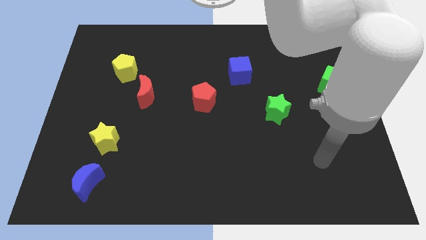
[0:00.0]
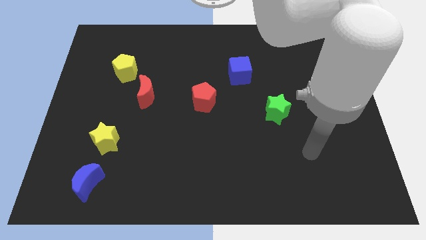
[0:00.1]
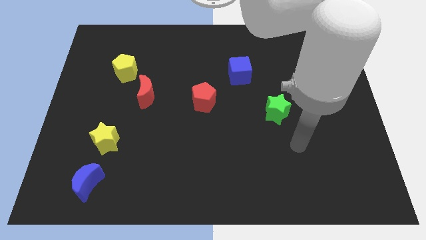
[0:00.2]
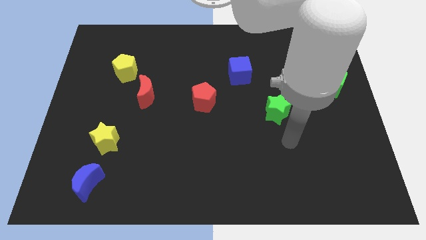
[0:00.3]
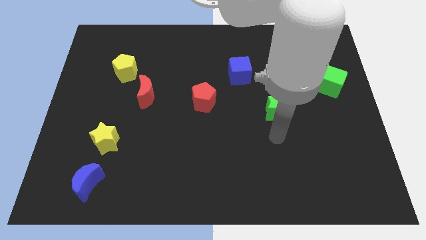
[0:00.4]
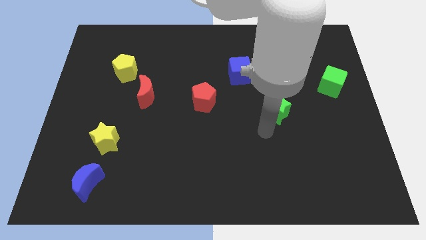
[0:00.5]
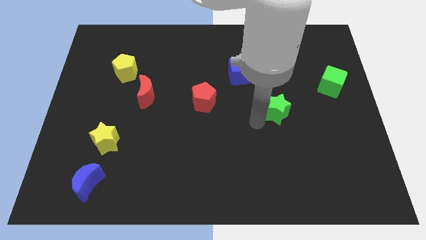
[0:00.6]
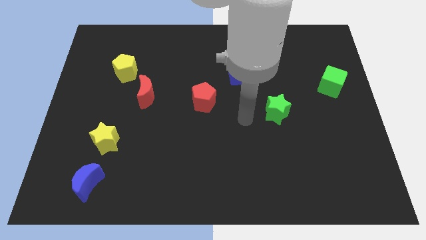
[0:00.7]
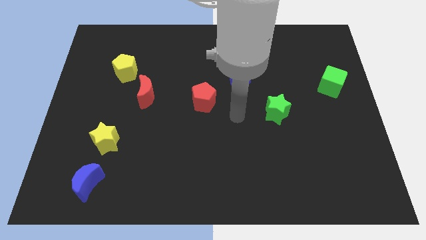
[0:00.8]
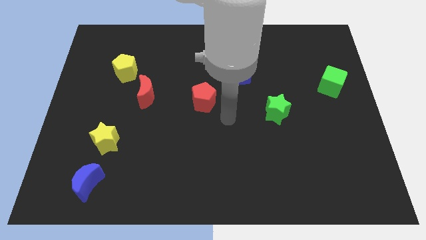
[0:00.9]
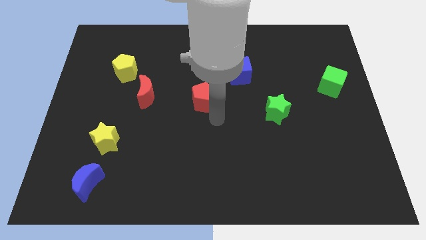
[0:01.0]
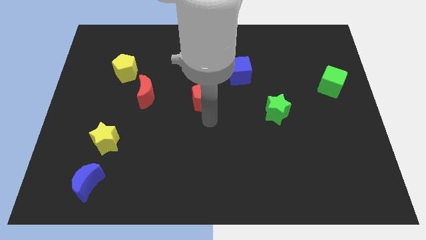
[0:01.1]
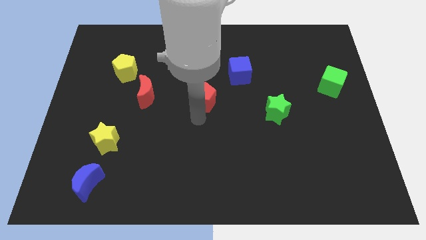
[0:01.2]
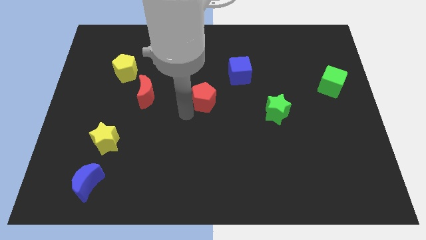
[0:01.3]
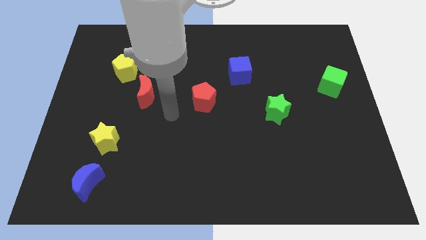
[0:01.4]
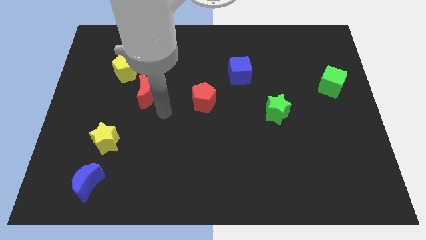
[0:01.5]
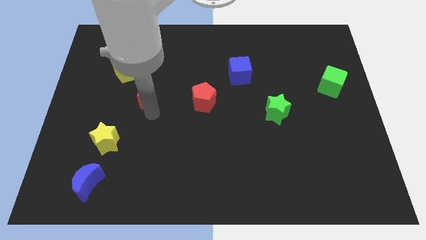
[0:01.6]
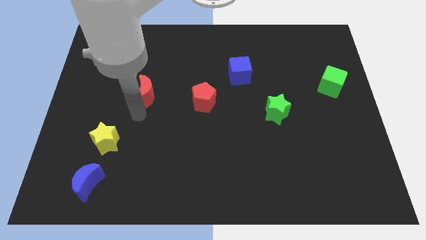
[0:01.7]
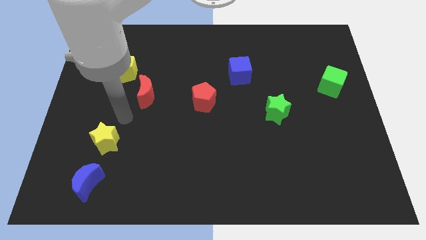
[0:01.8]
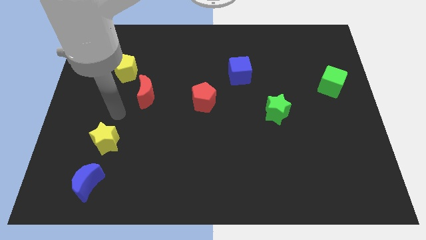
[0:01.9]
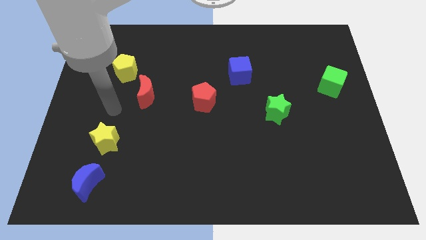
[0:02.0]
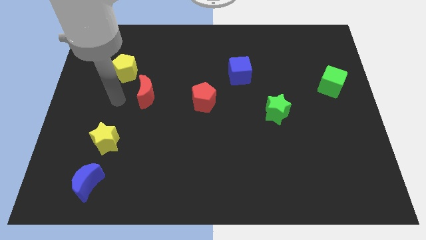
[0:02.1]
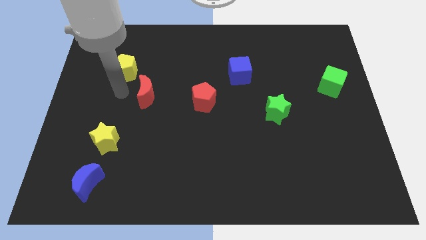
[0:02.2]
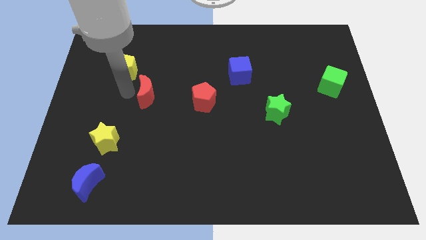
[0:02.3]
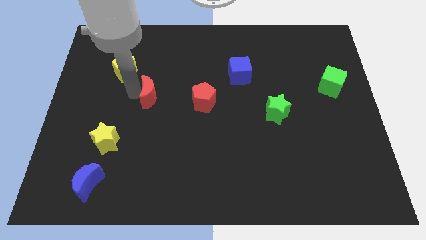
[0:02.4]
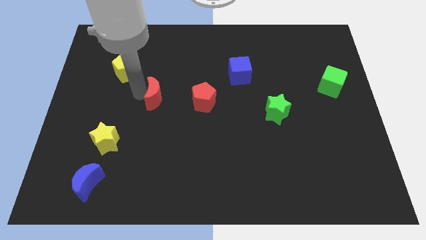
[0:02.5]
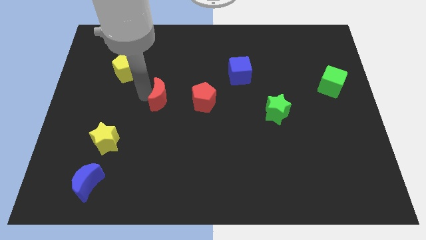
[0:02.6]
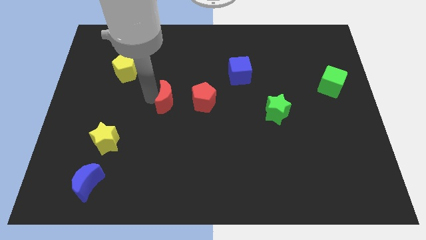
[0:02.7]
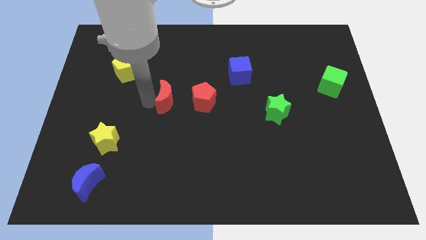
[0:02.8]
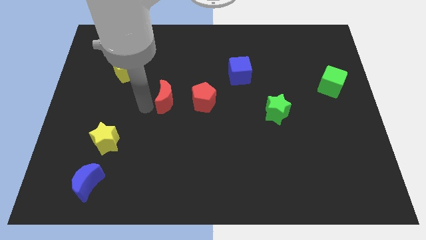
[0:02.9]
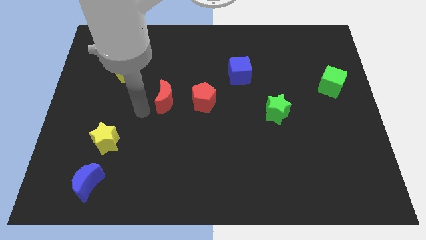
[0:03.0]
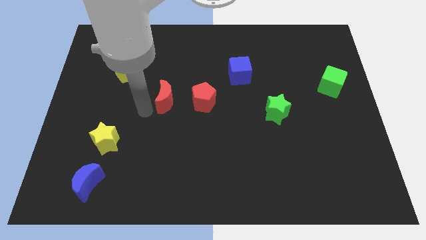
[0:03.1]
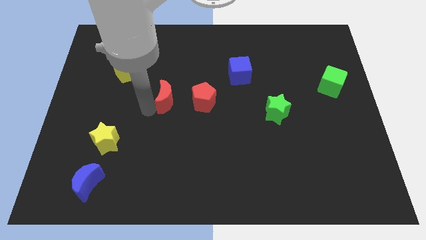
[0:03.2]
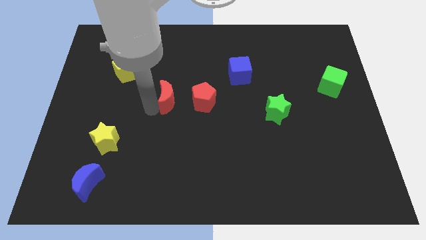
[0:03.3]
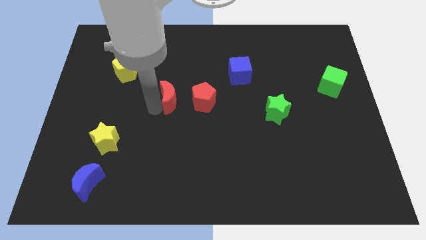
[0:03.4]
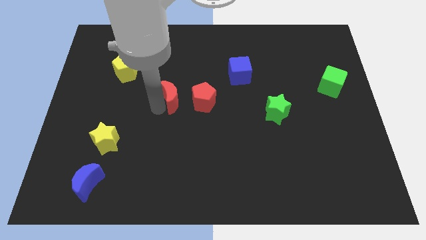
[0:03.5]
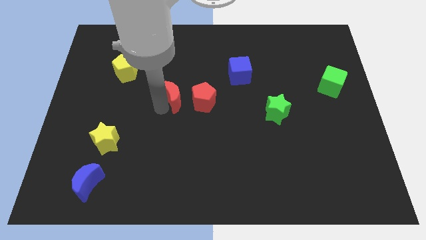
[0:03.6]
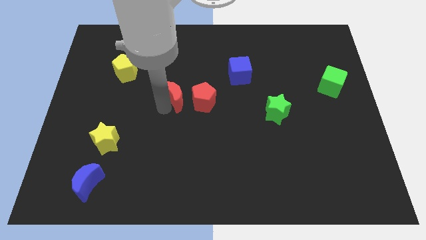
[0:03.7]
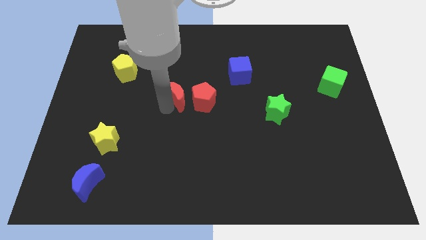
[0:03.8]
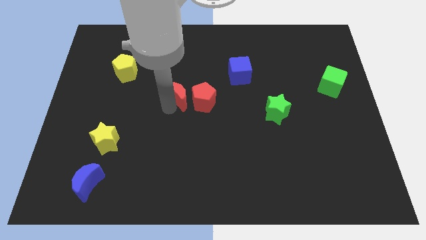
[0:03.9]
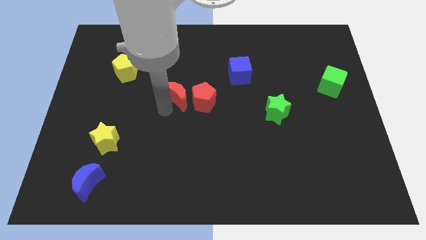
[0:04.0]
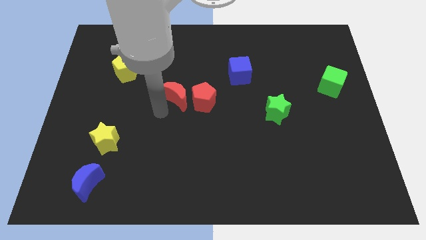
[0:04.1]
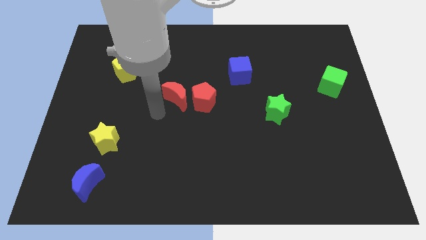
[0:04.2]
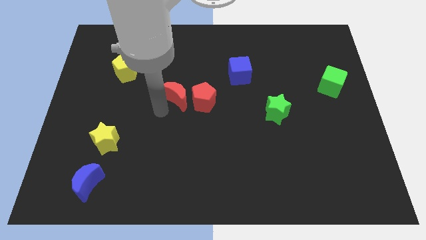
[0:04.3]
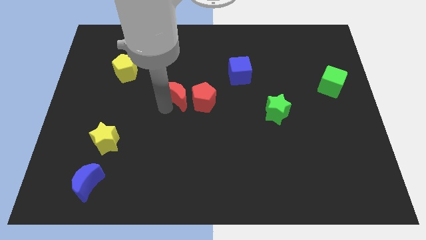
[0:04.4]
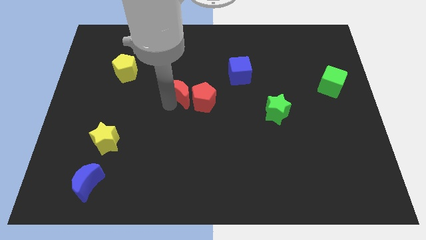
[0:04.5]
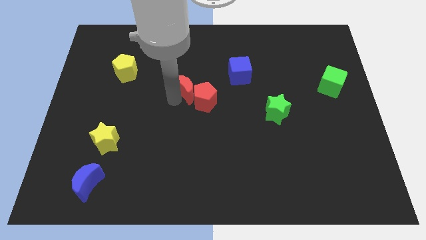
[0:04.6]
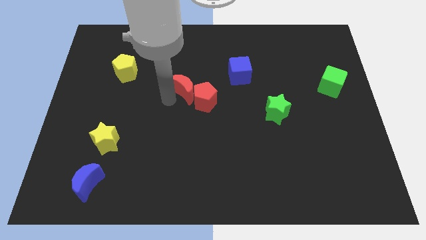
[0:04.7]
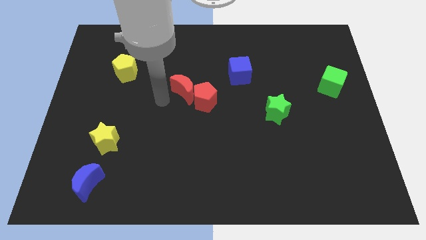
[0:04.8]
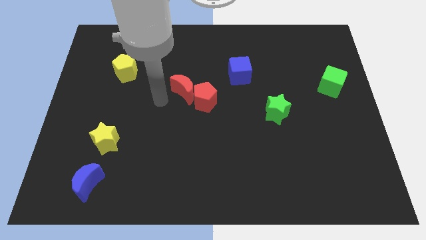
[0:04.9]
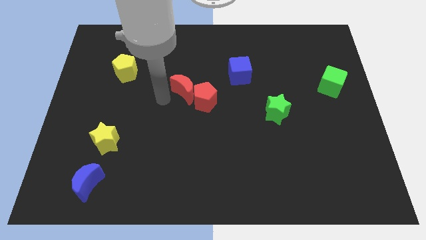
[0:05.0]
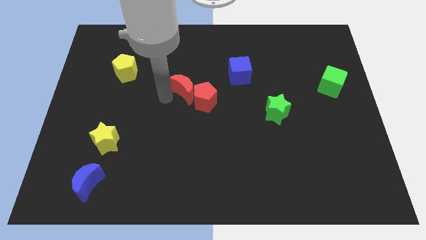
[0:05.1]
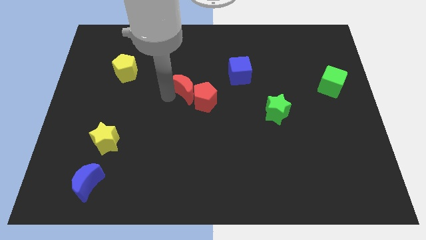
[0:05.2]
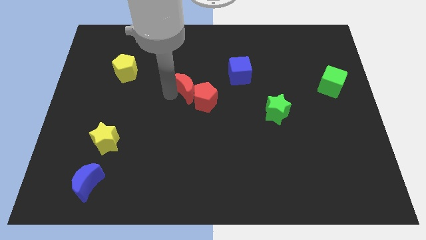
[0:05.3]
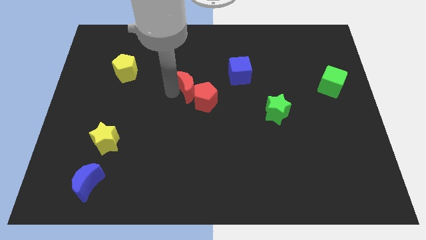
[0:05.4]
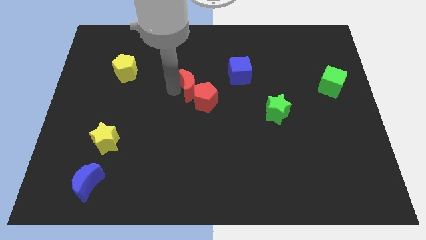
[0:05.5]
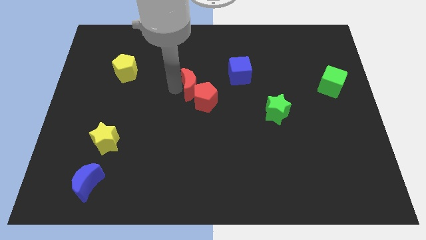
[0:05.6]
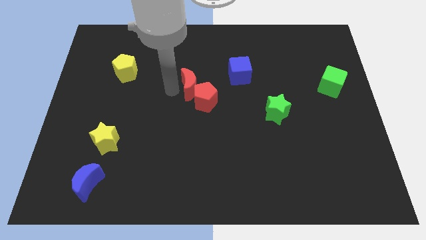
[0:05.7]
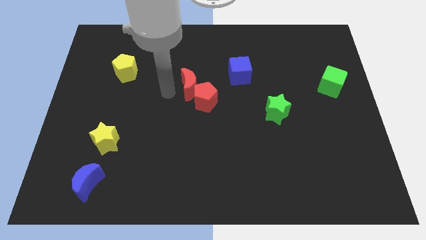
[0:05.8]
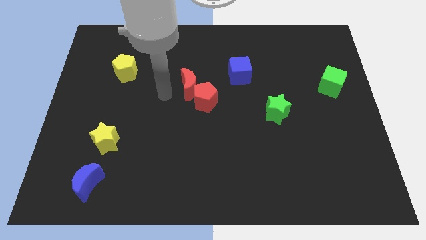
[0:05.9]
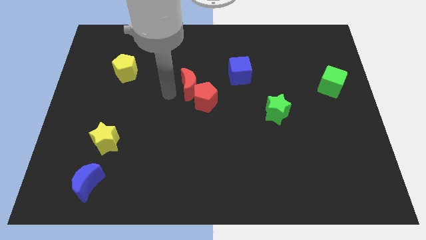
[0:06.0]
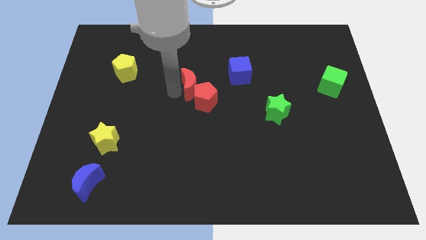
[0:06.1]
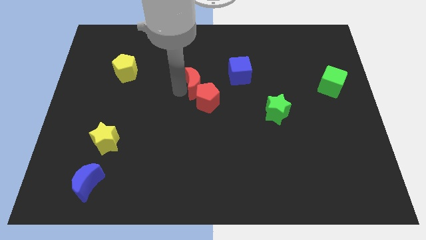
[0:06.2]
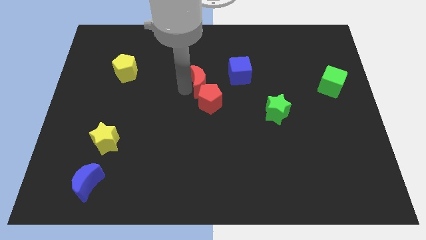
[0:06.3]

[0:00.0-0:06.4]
slide the red moon diagonally down and to the left of the blue cube
